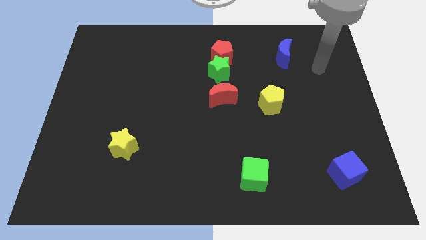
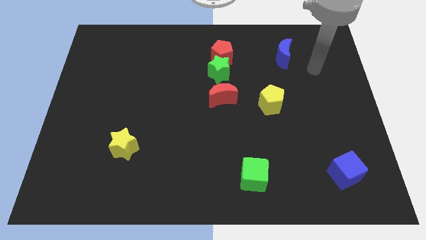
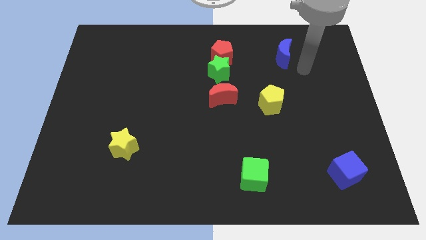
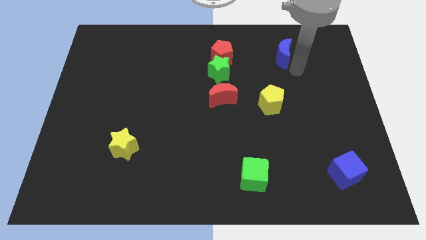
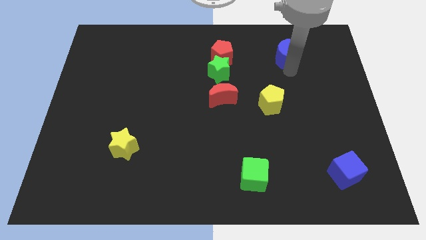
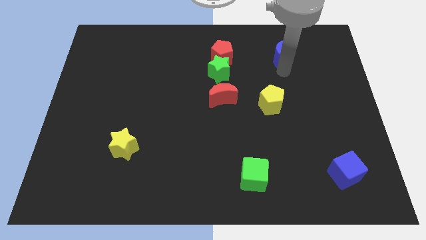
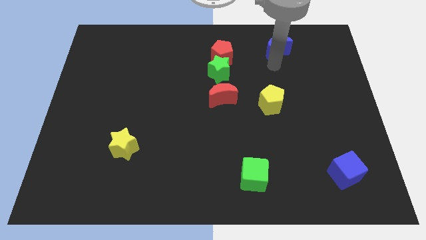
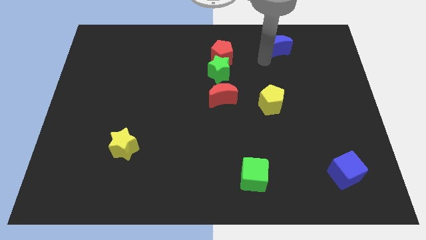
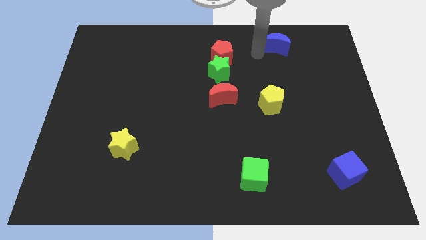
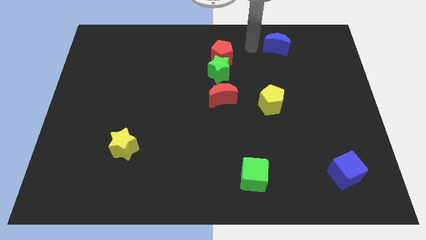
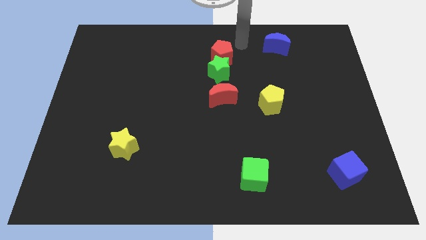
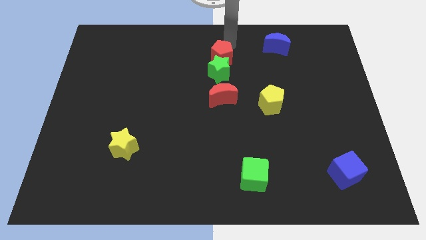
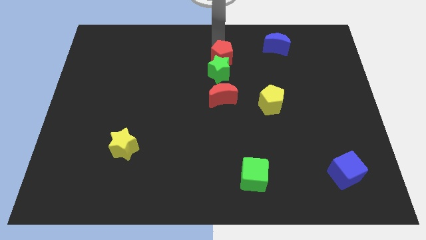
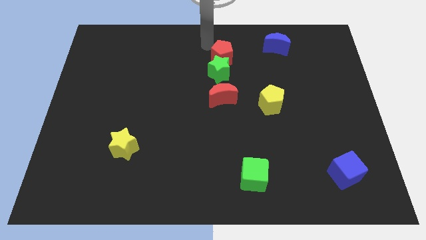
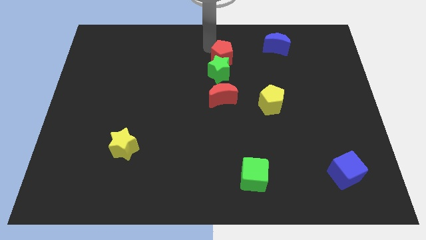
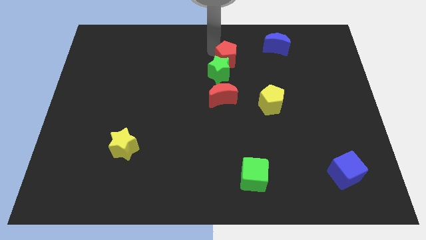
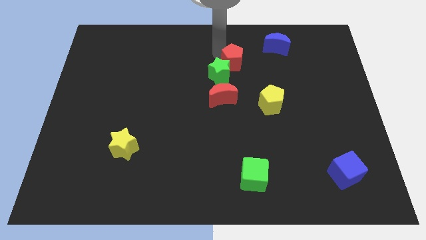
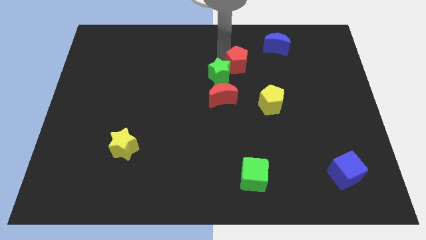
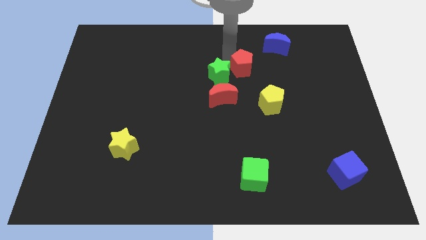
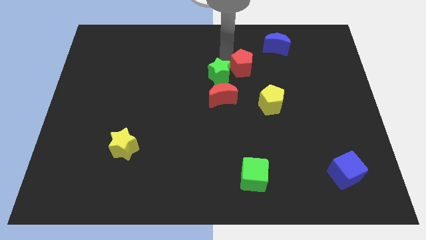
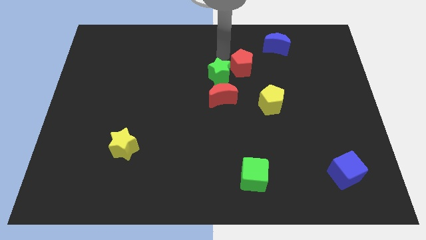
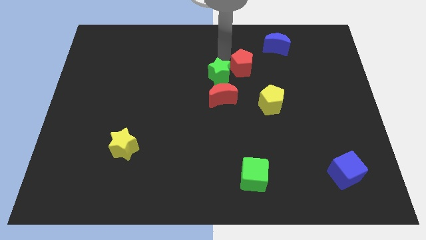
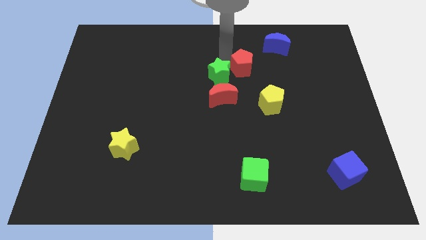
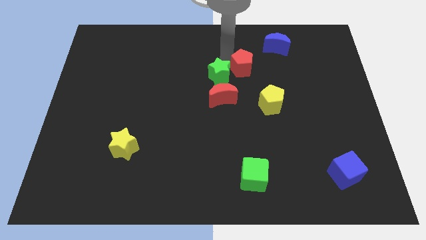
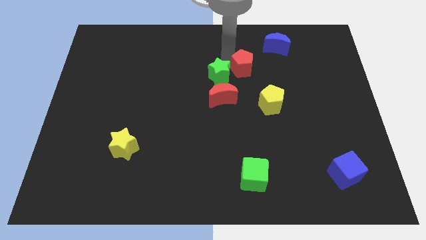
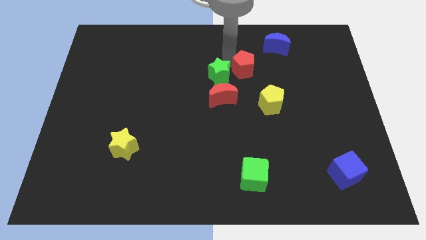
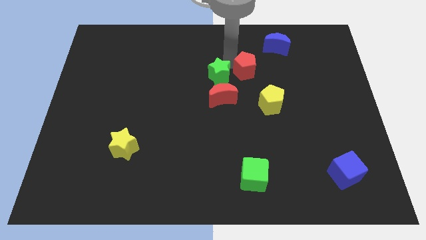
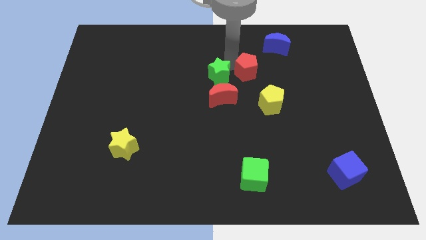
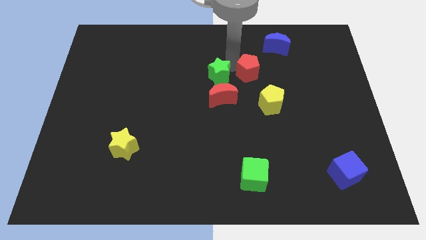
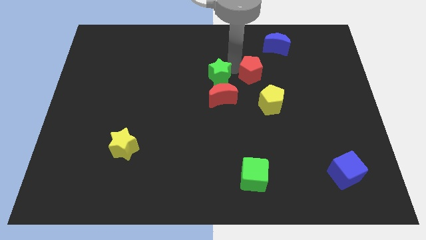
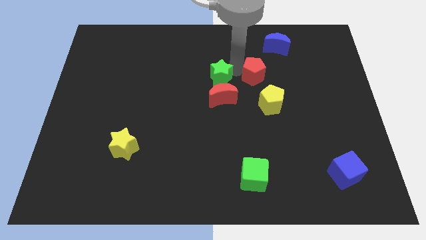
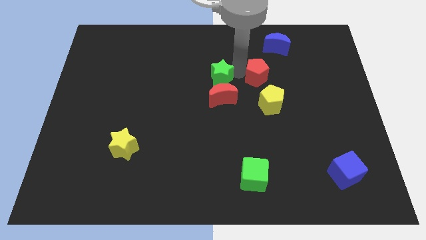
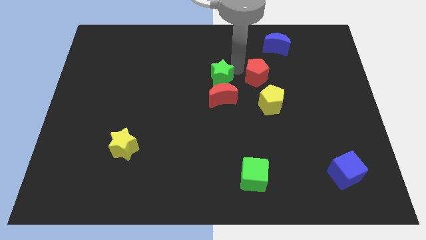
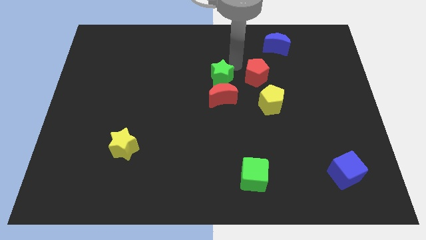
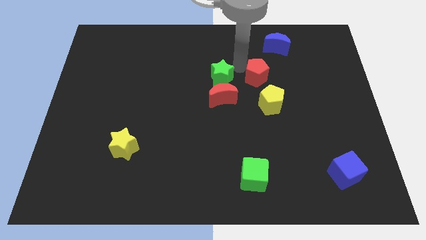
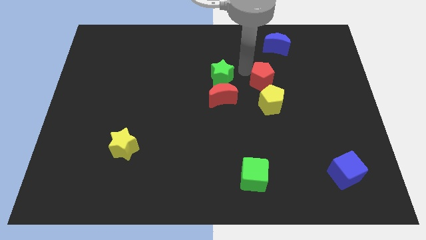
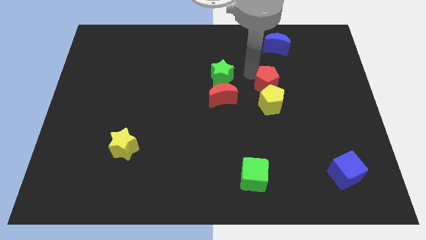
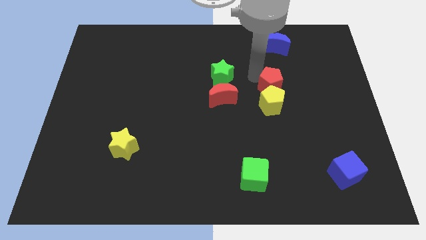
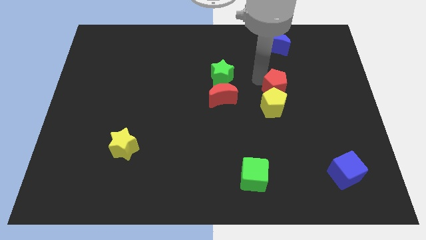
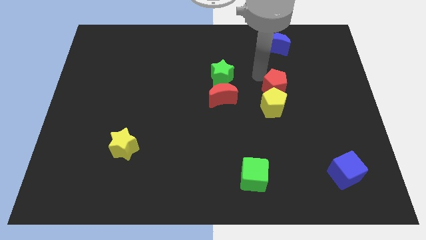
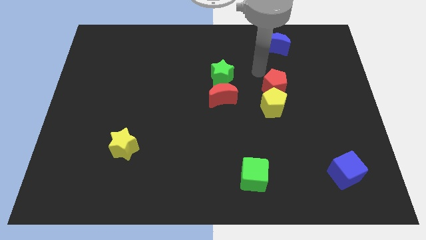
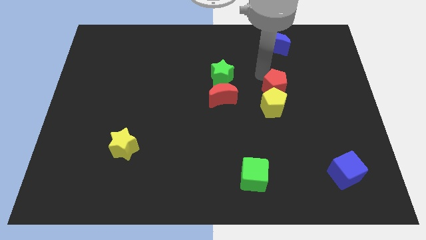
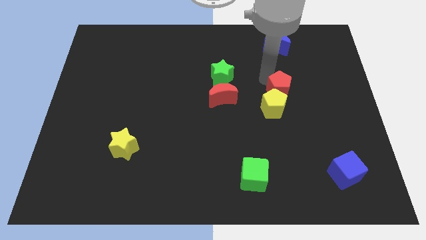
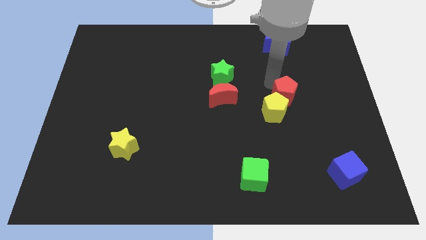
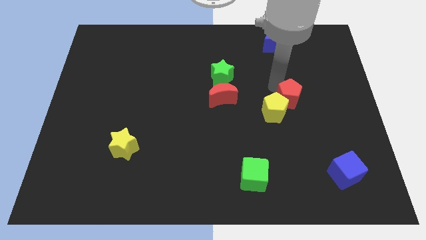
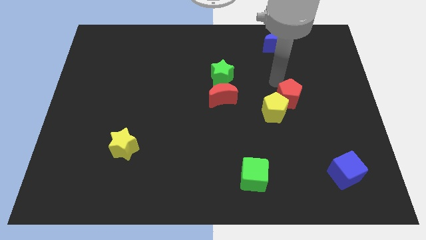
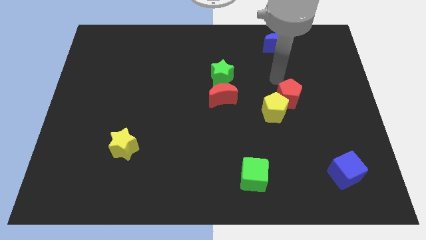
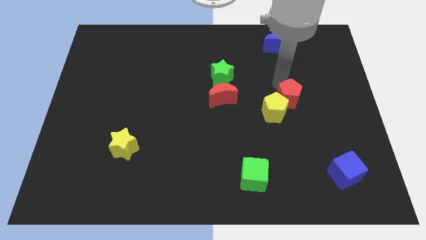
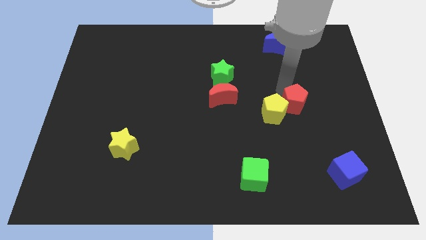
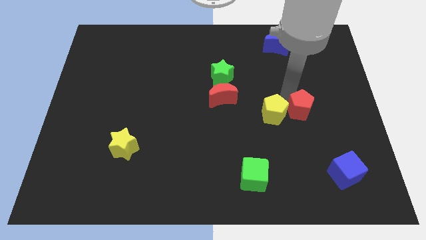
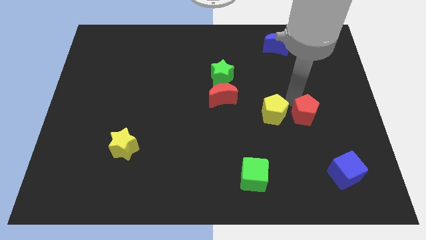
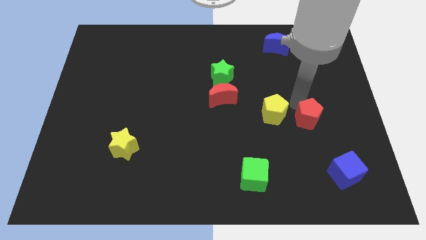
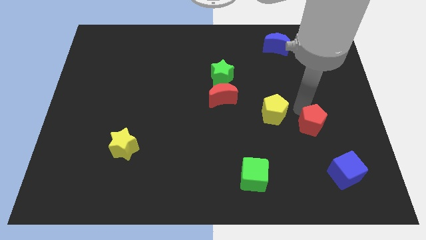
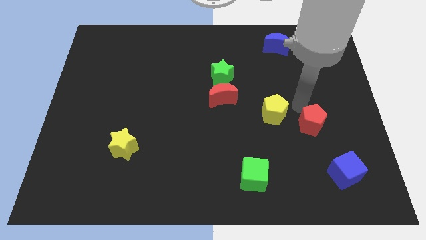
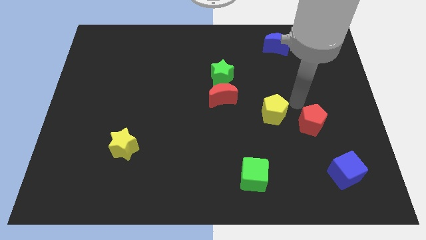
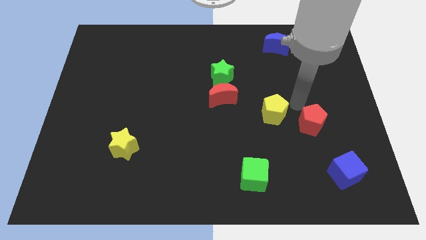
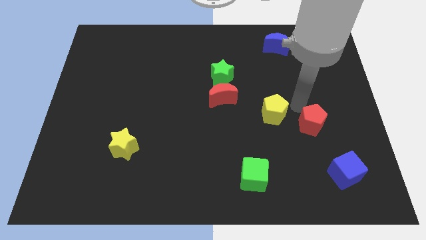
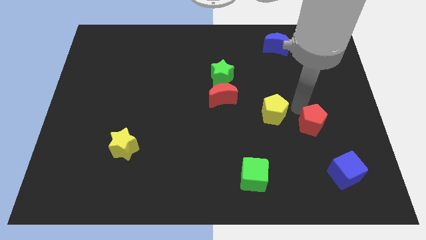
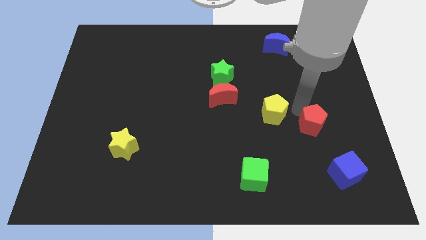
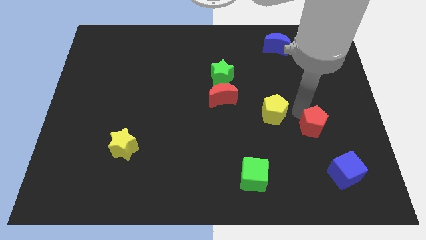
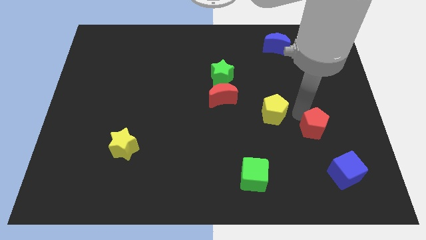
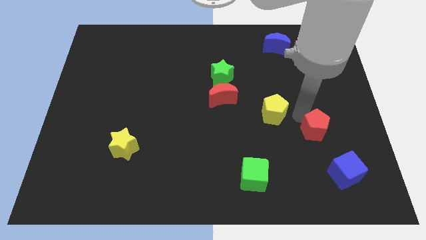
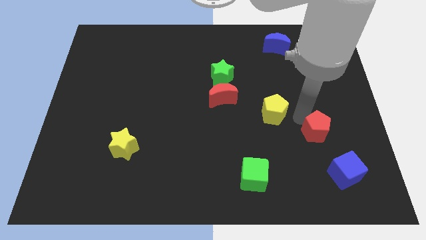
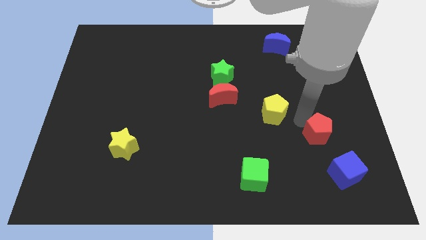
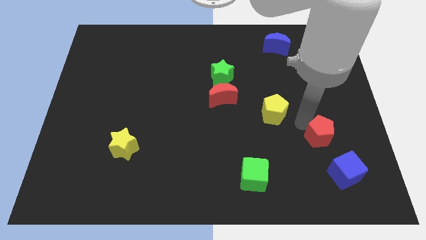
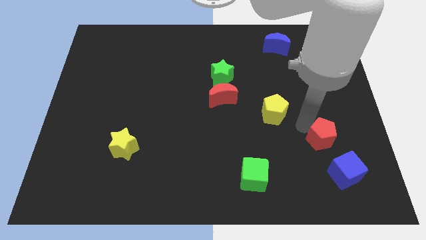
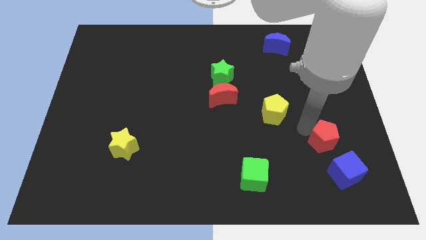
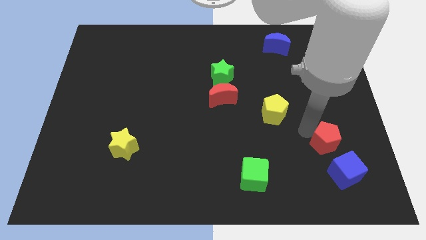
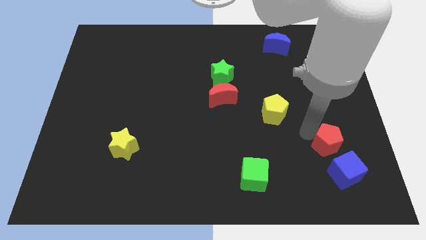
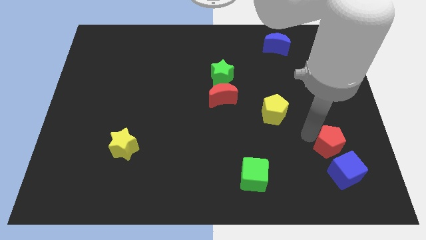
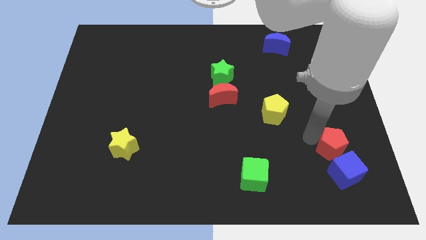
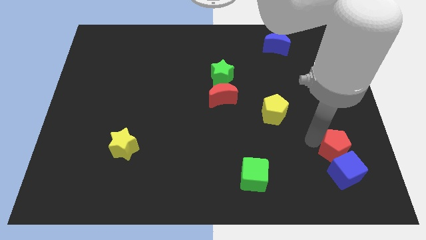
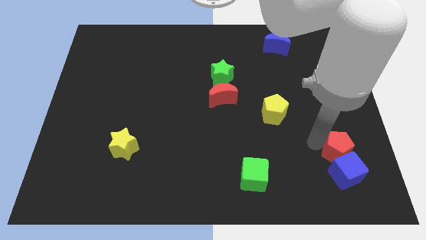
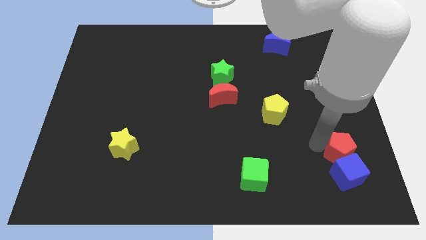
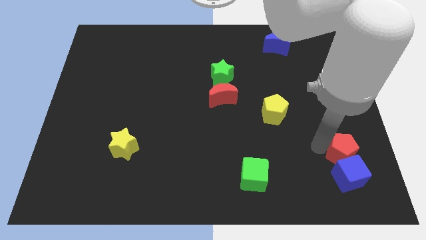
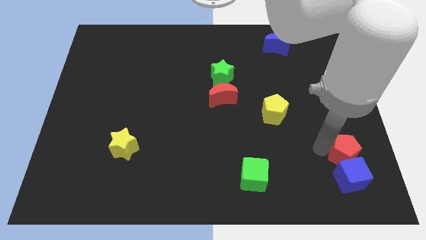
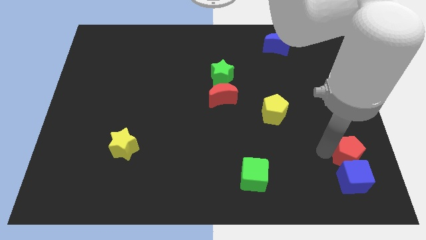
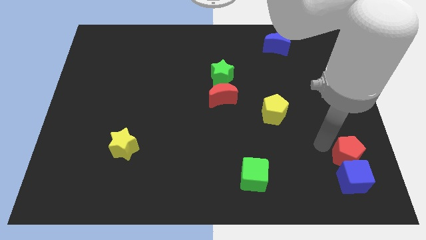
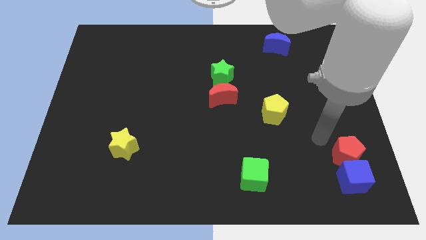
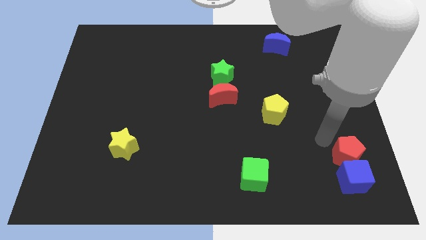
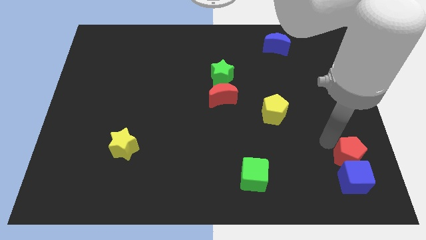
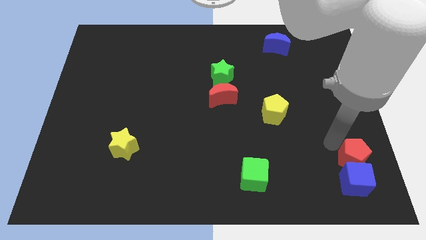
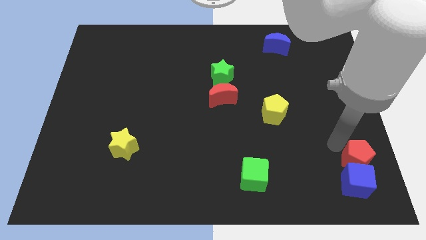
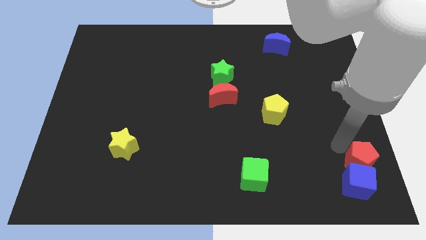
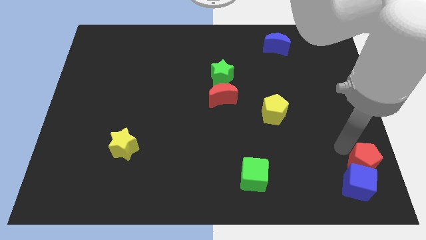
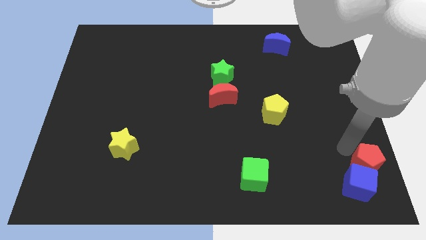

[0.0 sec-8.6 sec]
slide the red pentagon to the bottom right corner
